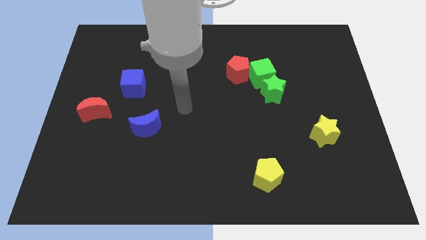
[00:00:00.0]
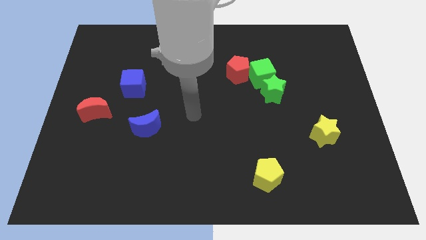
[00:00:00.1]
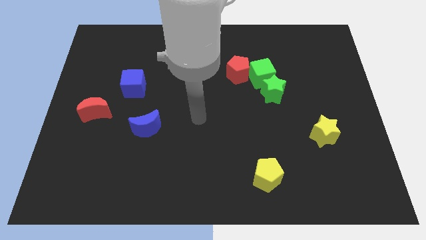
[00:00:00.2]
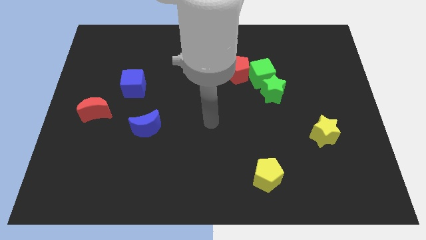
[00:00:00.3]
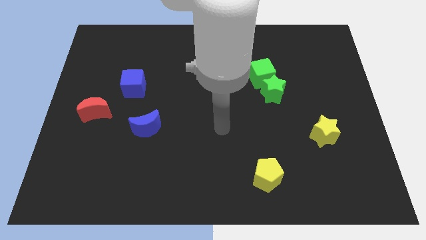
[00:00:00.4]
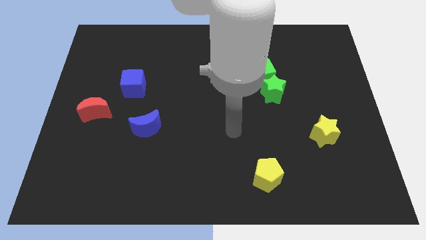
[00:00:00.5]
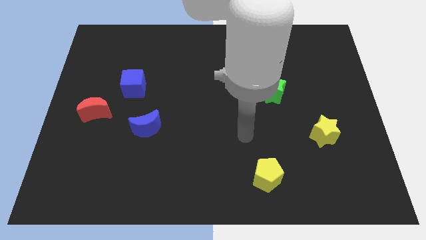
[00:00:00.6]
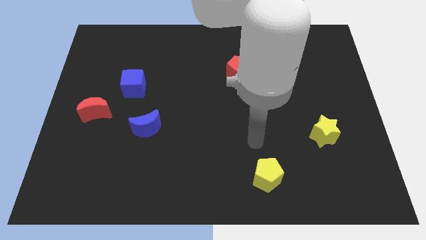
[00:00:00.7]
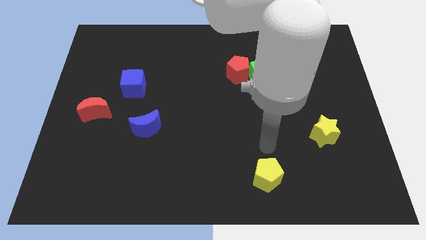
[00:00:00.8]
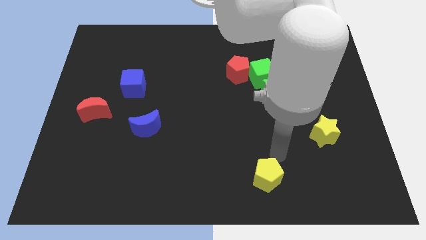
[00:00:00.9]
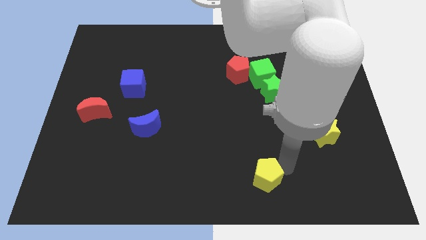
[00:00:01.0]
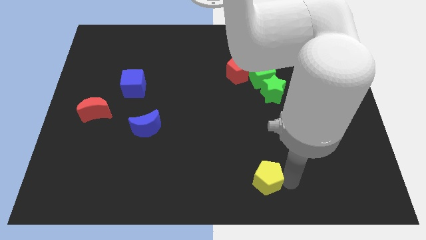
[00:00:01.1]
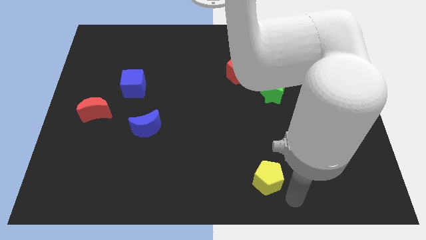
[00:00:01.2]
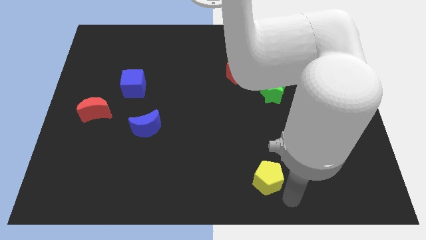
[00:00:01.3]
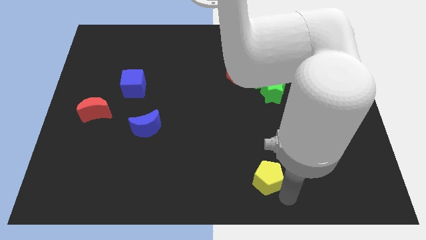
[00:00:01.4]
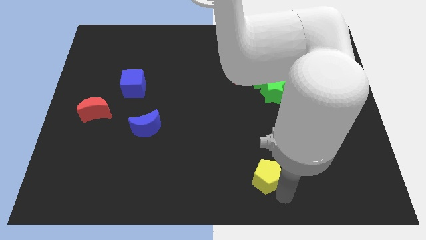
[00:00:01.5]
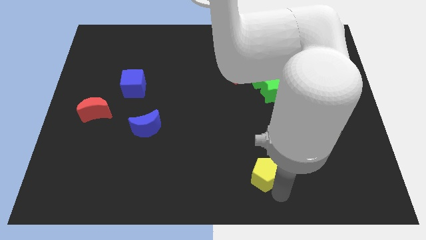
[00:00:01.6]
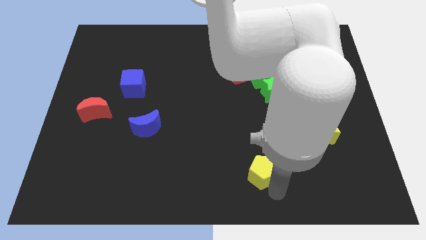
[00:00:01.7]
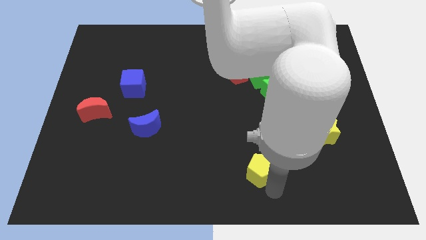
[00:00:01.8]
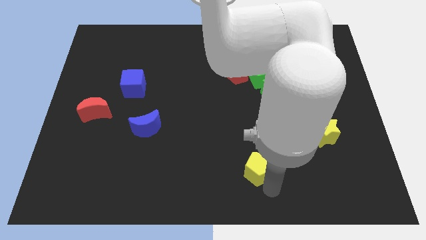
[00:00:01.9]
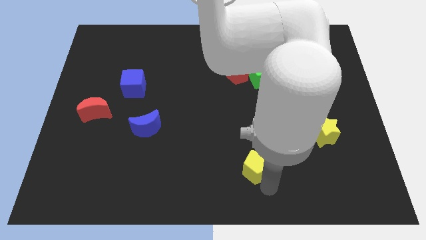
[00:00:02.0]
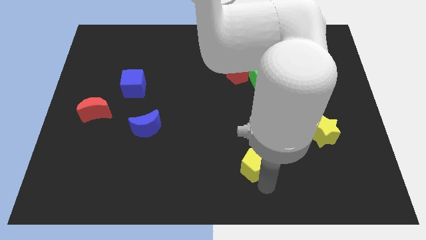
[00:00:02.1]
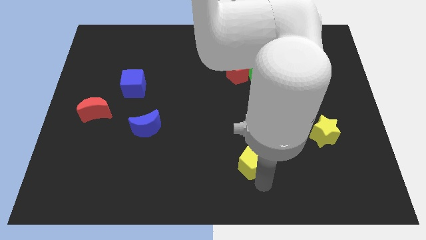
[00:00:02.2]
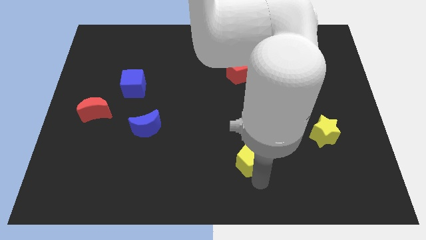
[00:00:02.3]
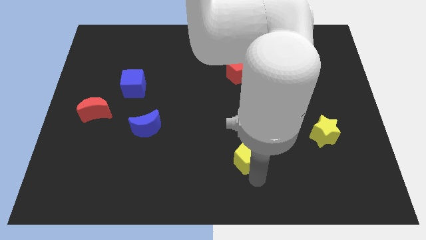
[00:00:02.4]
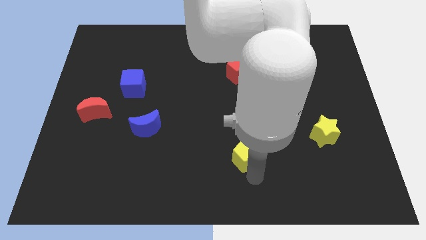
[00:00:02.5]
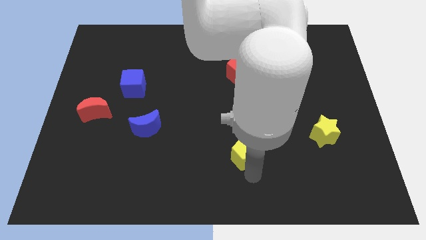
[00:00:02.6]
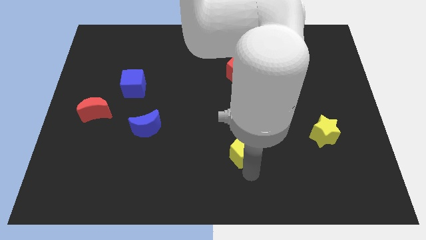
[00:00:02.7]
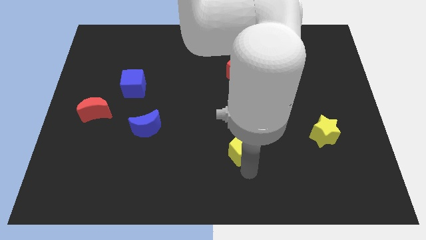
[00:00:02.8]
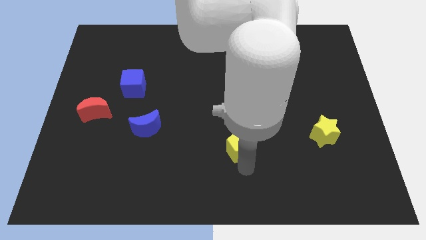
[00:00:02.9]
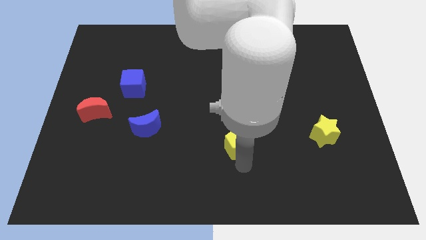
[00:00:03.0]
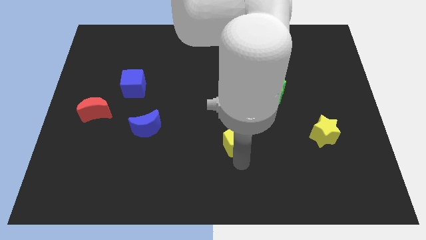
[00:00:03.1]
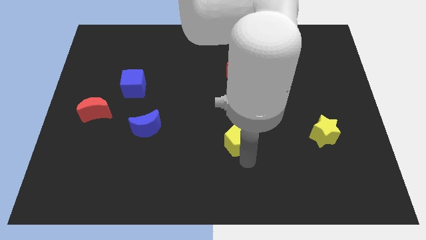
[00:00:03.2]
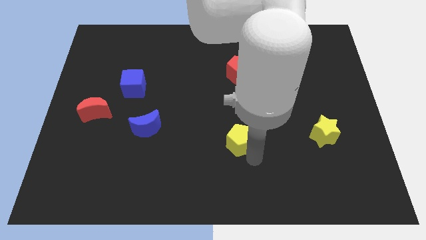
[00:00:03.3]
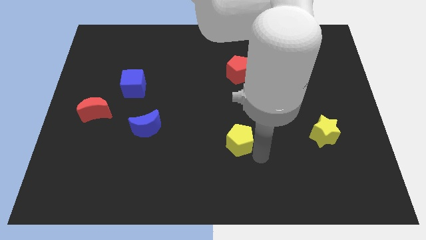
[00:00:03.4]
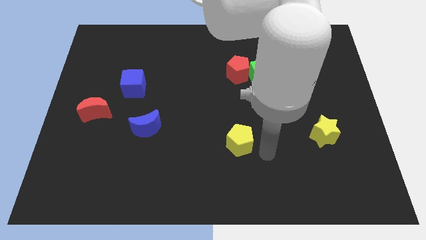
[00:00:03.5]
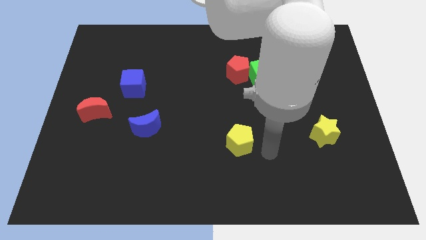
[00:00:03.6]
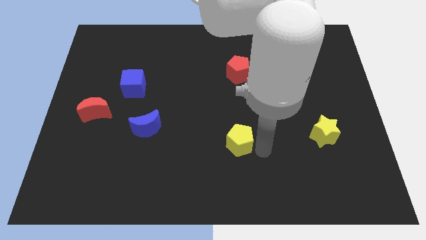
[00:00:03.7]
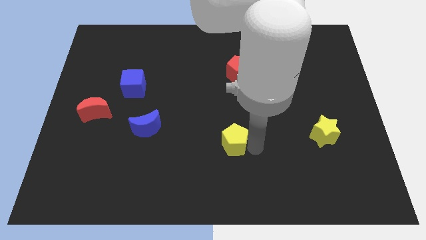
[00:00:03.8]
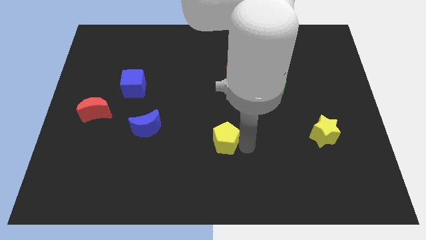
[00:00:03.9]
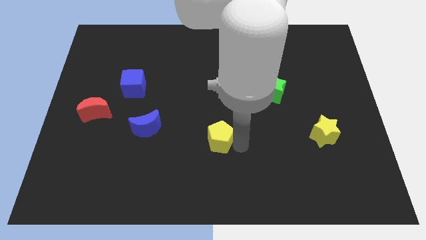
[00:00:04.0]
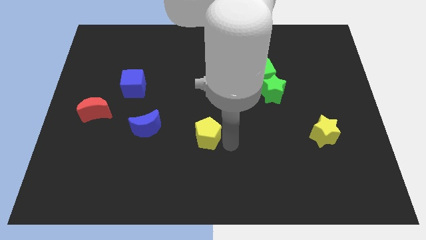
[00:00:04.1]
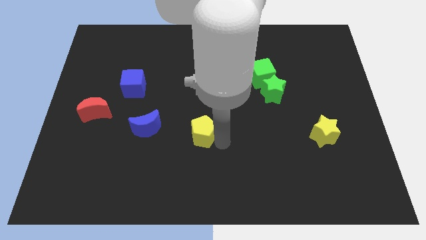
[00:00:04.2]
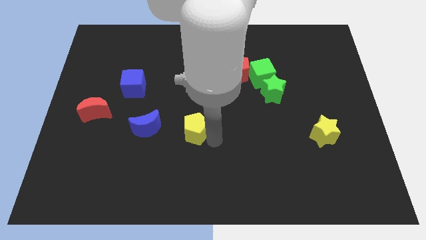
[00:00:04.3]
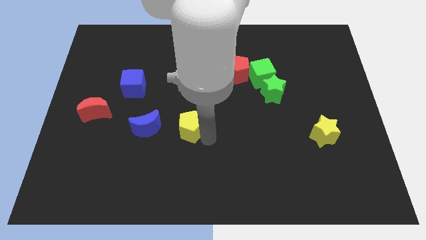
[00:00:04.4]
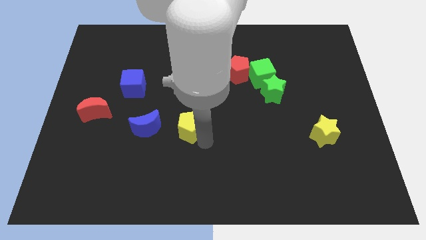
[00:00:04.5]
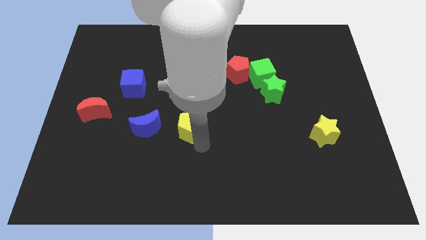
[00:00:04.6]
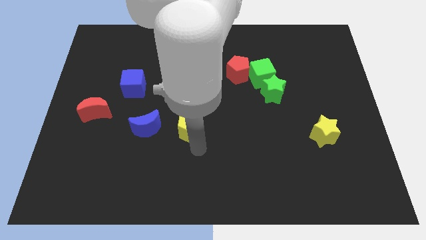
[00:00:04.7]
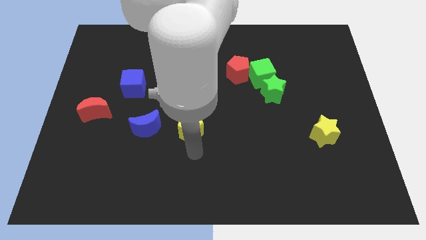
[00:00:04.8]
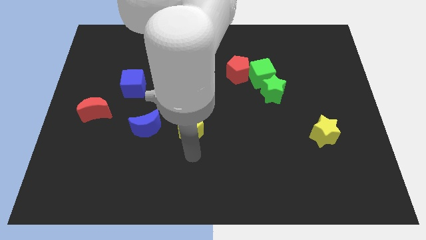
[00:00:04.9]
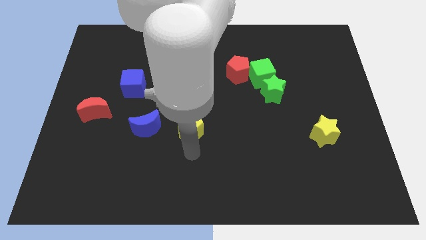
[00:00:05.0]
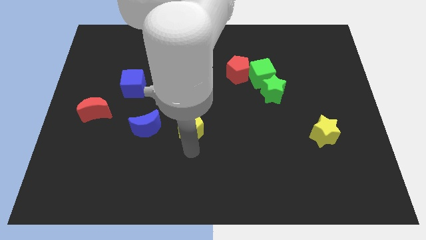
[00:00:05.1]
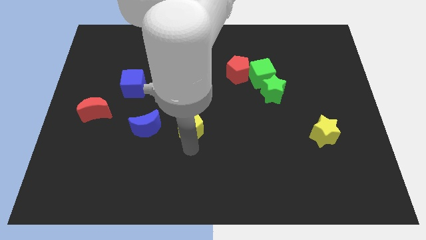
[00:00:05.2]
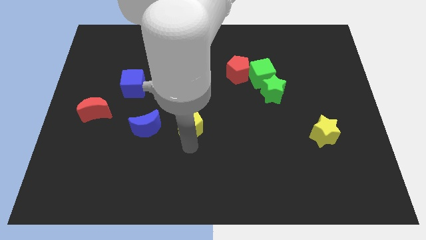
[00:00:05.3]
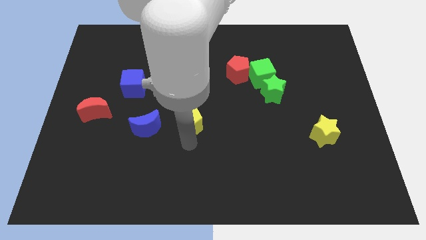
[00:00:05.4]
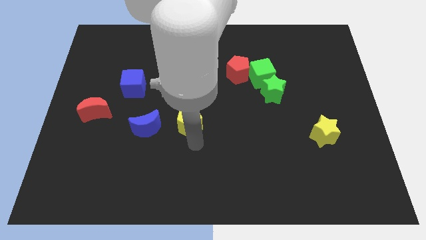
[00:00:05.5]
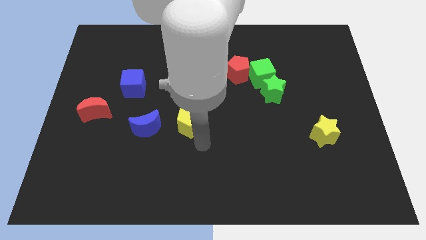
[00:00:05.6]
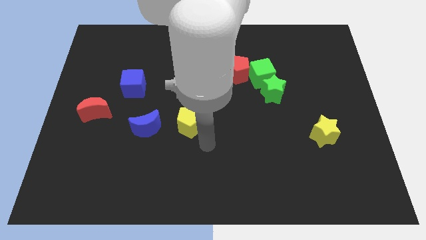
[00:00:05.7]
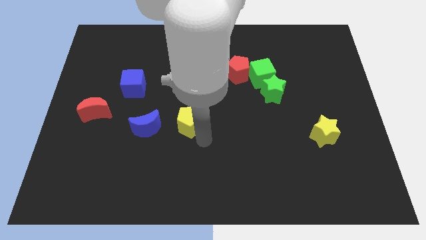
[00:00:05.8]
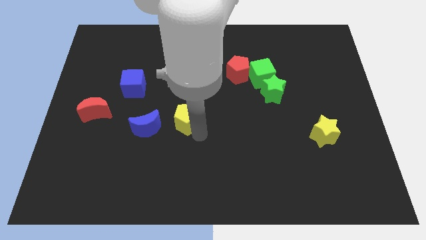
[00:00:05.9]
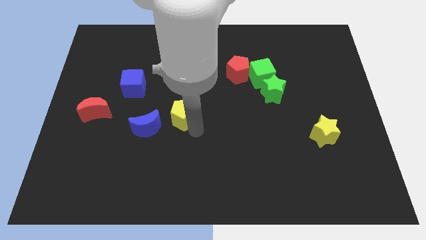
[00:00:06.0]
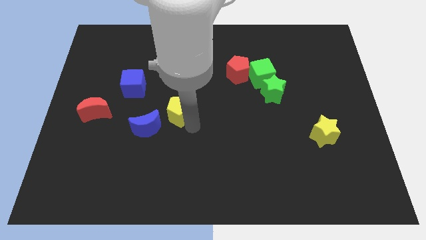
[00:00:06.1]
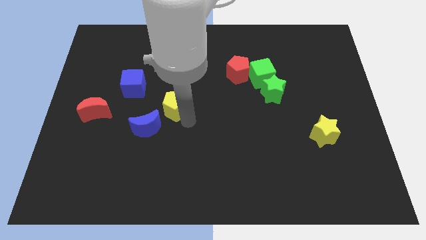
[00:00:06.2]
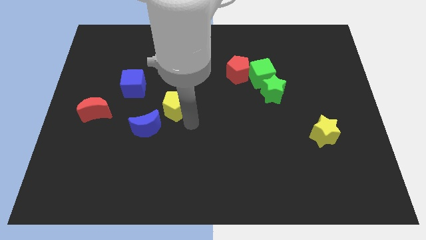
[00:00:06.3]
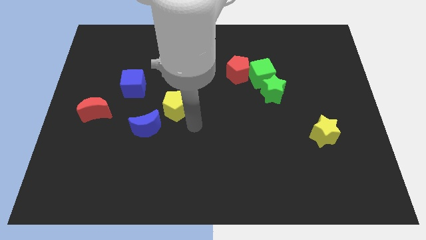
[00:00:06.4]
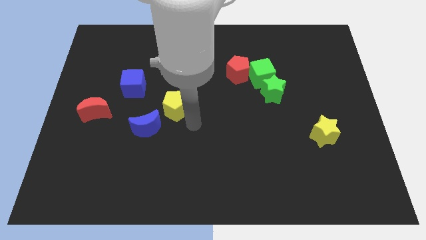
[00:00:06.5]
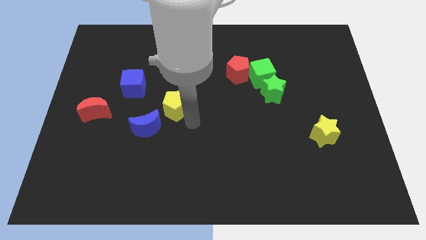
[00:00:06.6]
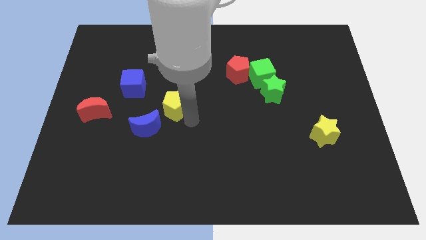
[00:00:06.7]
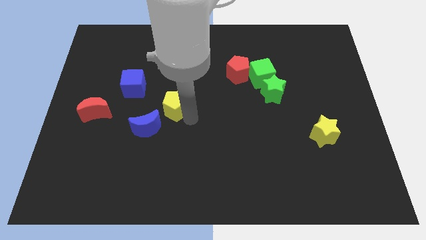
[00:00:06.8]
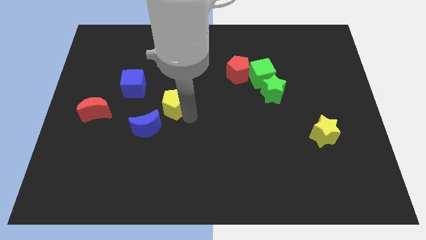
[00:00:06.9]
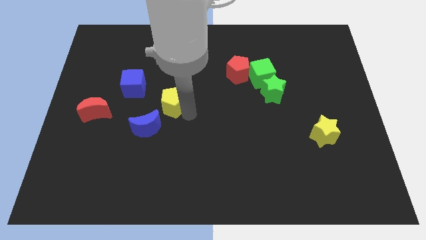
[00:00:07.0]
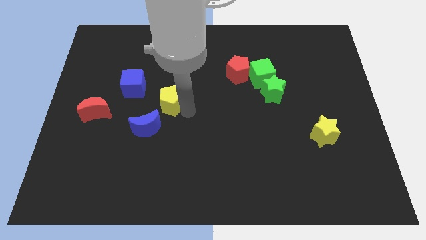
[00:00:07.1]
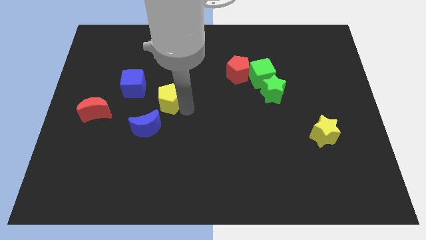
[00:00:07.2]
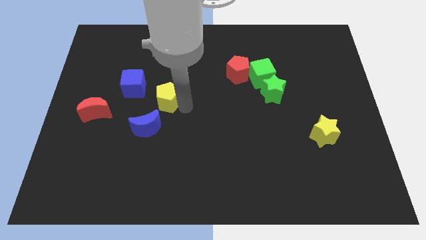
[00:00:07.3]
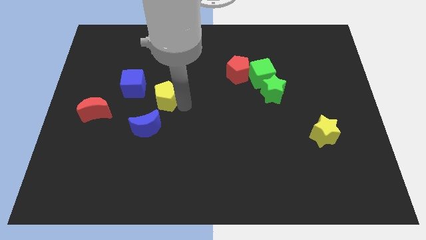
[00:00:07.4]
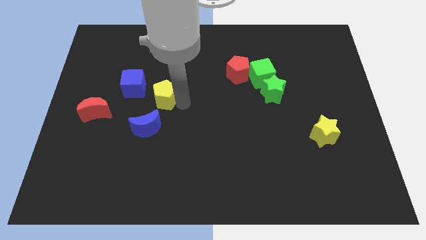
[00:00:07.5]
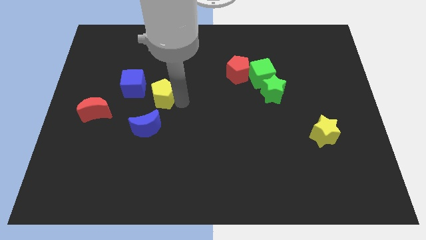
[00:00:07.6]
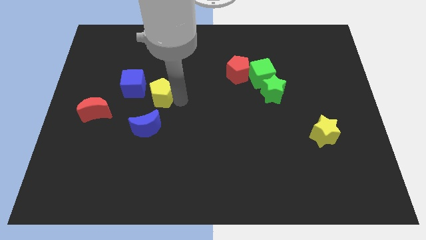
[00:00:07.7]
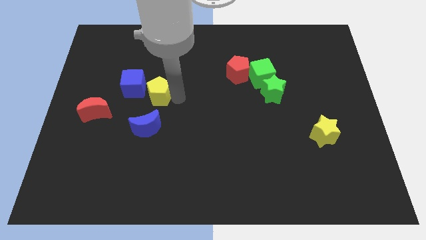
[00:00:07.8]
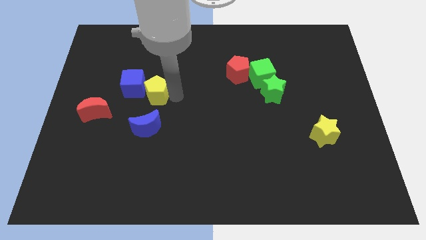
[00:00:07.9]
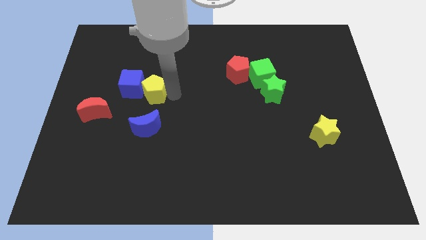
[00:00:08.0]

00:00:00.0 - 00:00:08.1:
put the yellow pentagon towards the blue cube
